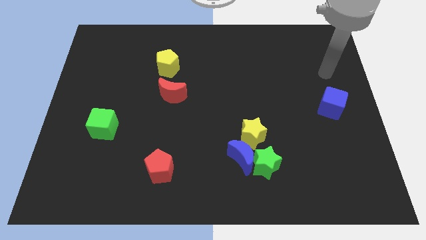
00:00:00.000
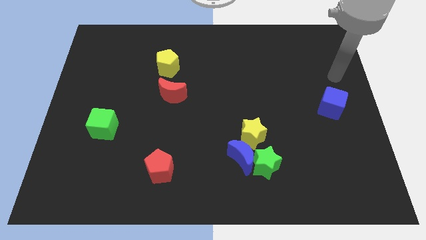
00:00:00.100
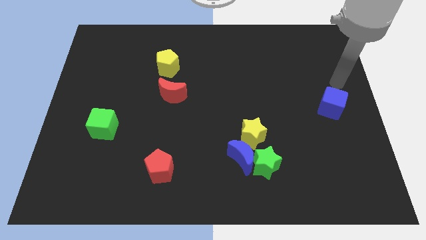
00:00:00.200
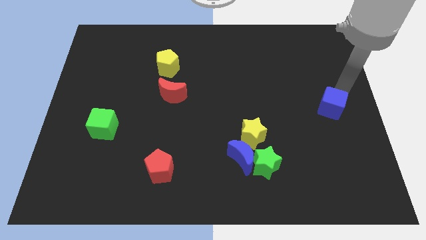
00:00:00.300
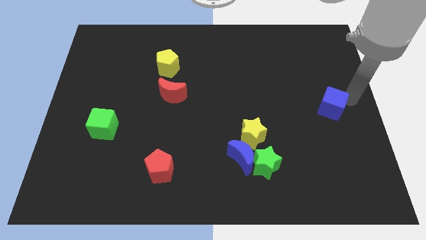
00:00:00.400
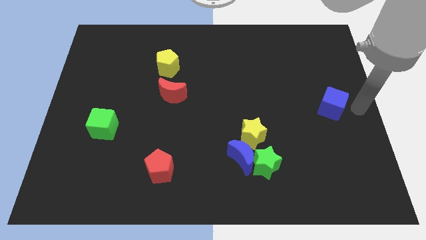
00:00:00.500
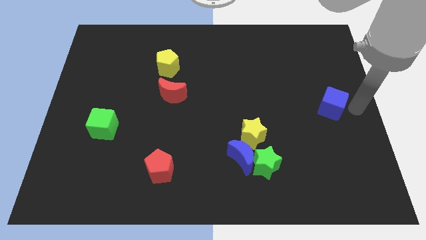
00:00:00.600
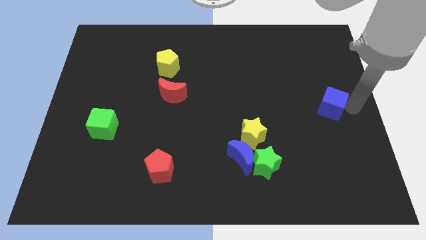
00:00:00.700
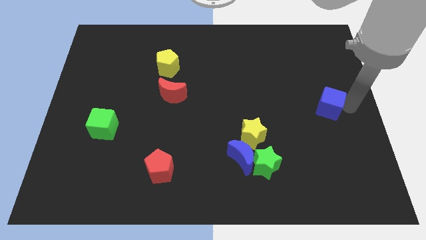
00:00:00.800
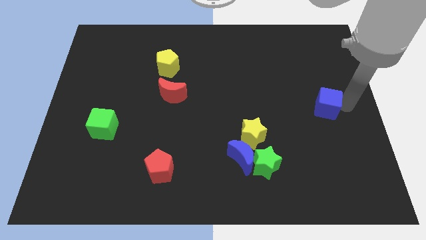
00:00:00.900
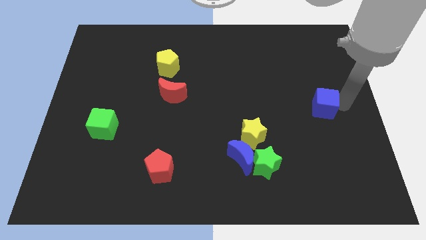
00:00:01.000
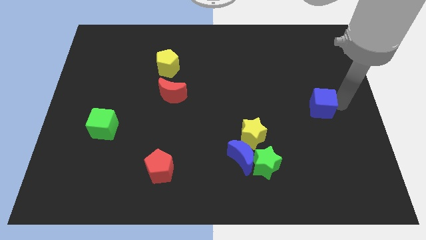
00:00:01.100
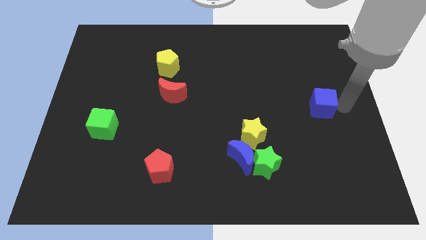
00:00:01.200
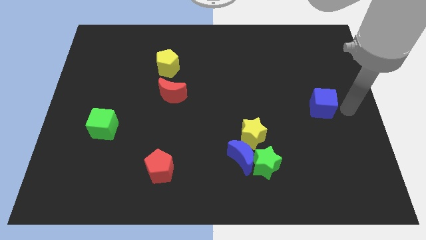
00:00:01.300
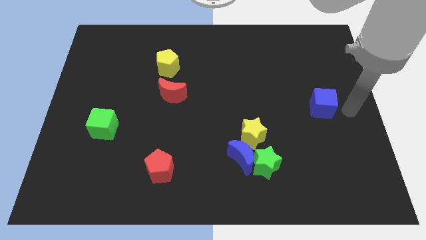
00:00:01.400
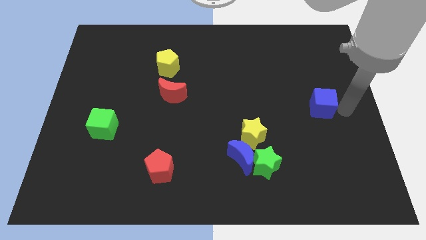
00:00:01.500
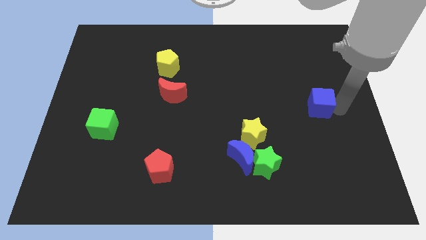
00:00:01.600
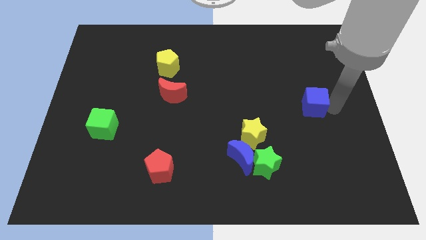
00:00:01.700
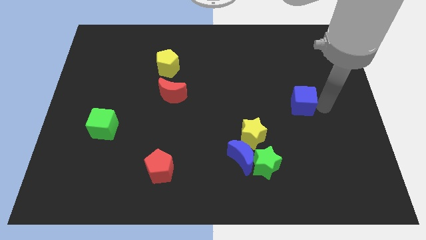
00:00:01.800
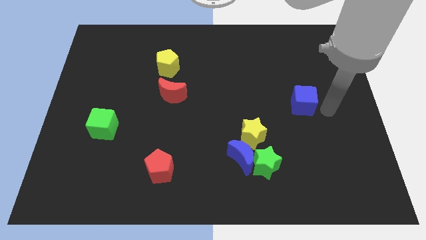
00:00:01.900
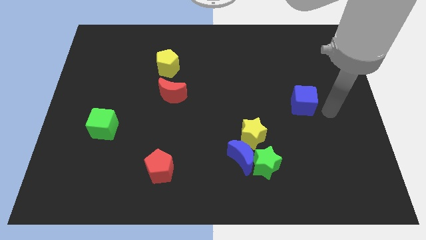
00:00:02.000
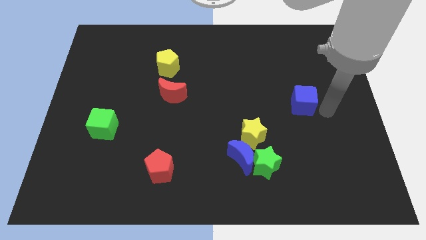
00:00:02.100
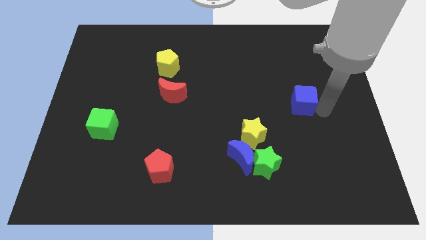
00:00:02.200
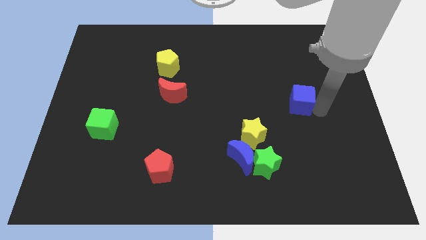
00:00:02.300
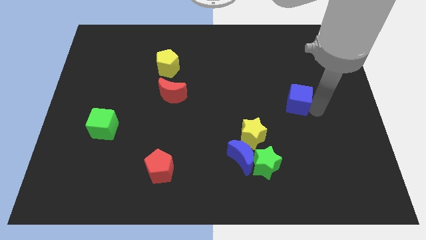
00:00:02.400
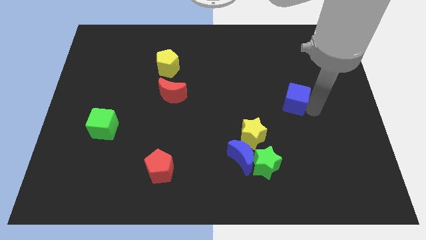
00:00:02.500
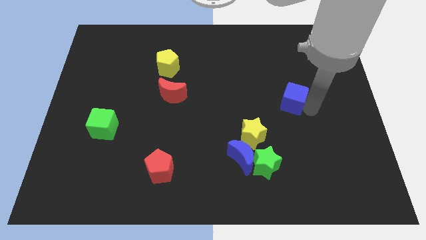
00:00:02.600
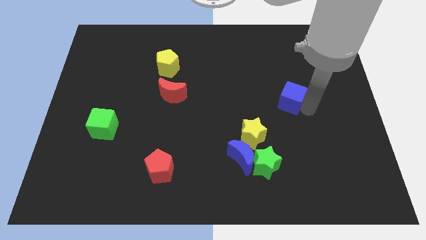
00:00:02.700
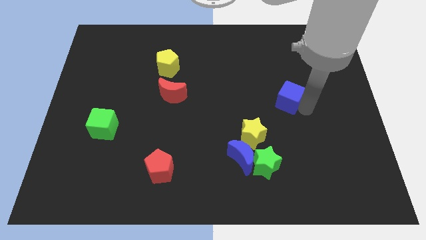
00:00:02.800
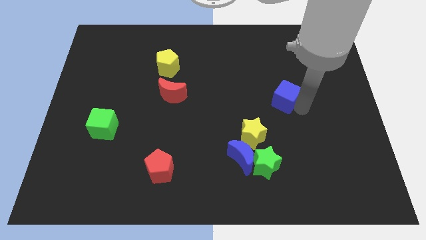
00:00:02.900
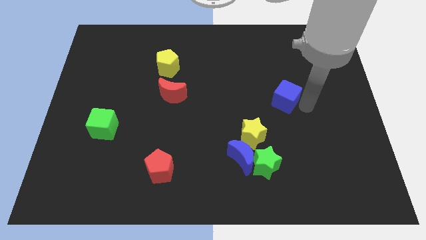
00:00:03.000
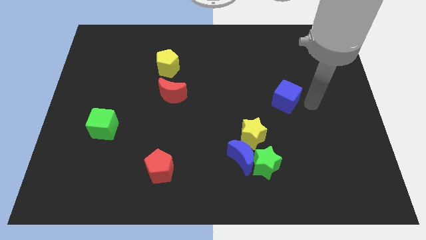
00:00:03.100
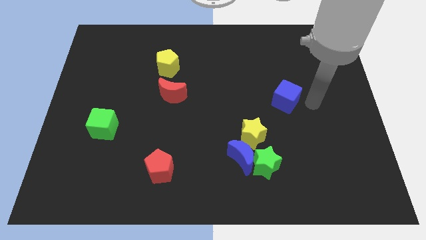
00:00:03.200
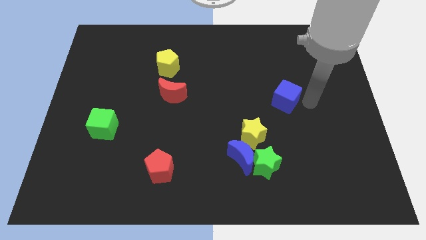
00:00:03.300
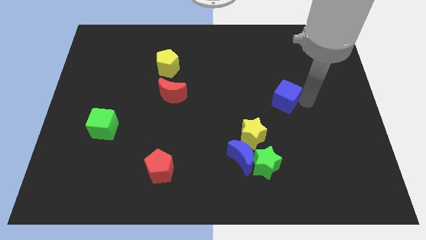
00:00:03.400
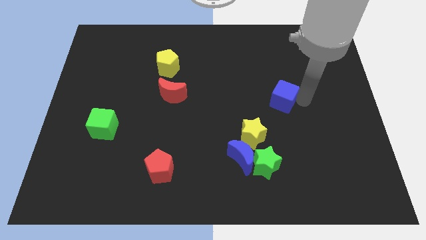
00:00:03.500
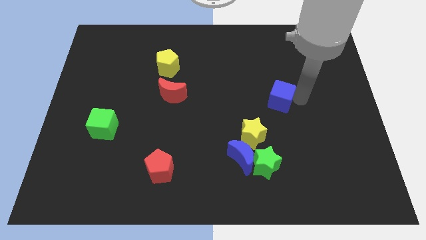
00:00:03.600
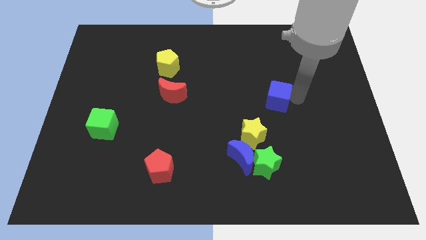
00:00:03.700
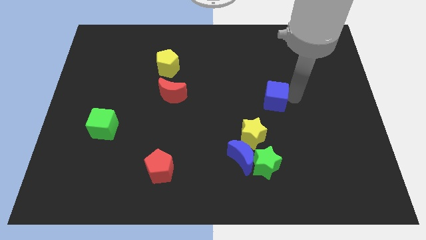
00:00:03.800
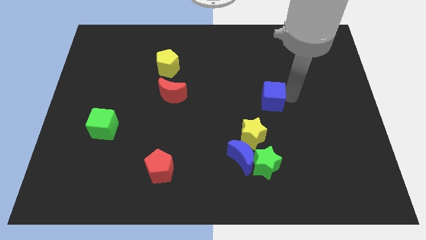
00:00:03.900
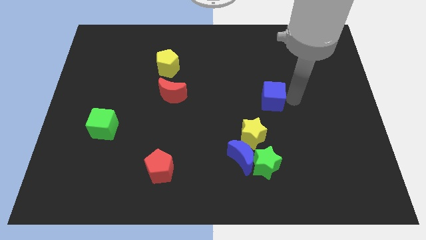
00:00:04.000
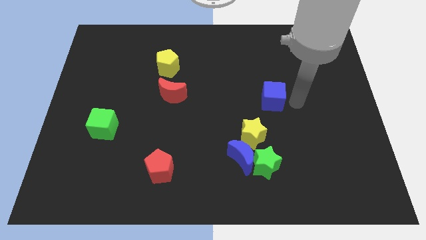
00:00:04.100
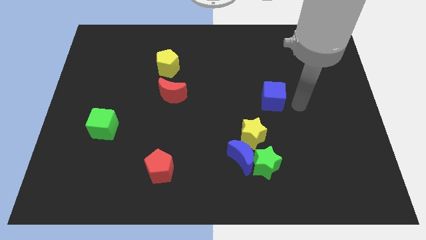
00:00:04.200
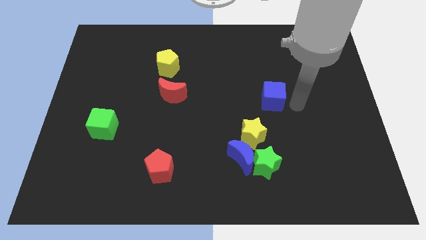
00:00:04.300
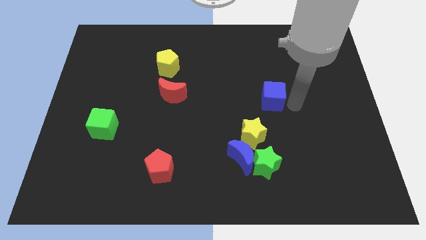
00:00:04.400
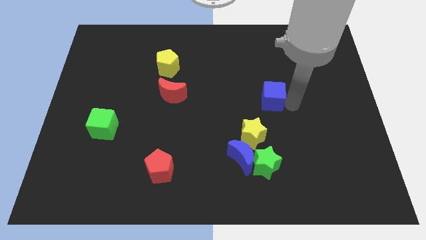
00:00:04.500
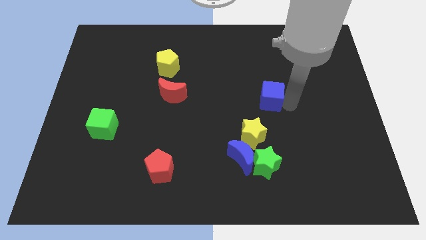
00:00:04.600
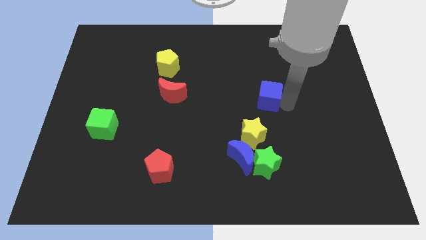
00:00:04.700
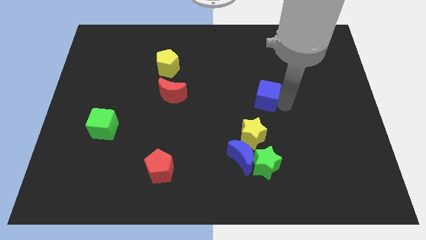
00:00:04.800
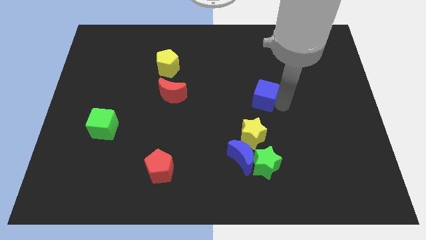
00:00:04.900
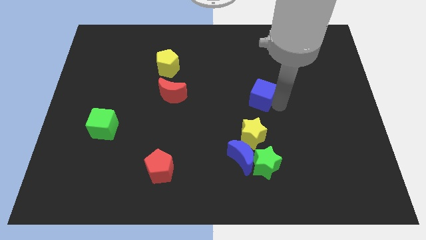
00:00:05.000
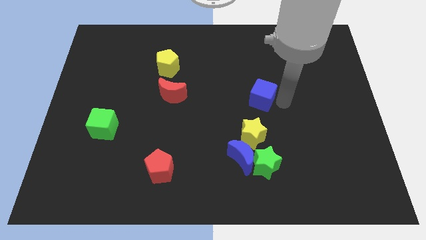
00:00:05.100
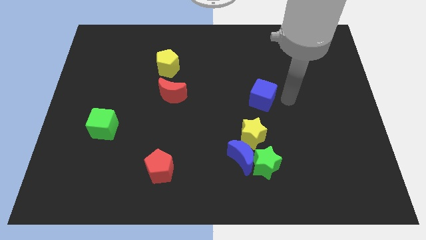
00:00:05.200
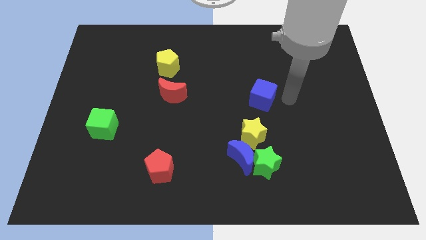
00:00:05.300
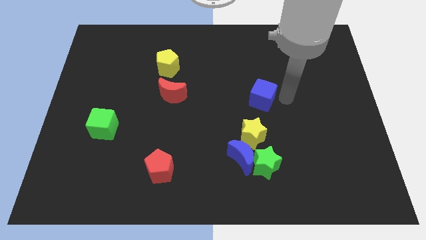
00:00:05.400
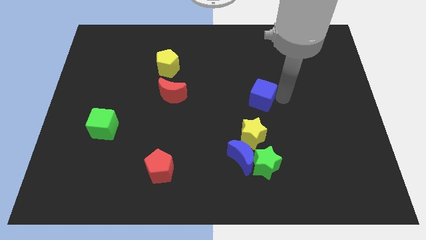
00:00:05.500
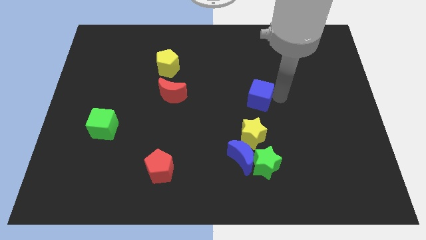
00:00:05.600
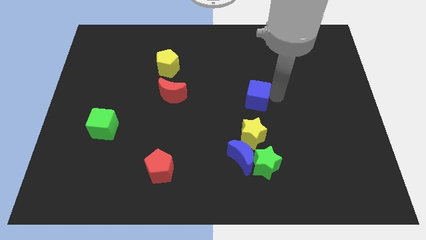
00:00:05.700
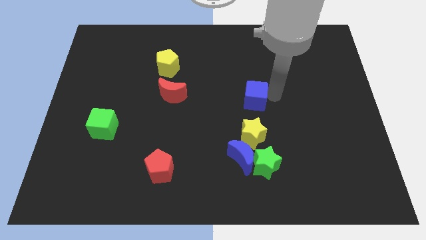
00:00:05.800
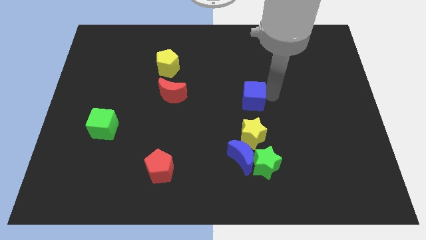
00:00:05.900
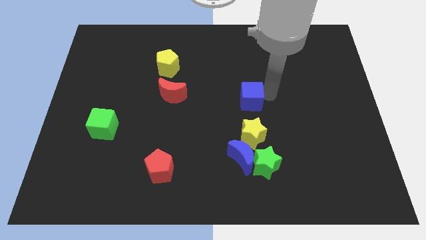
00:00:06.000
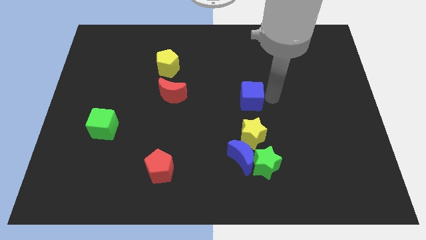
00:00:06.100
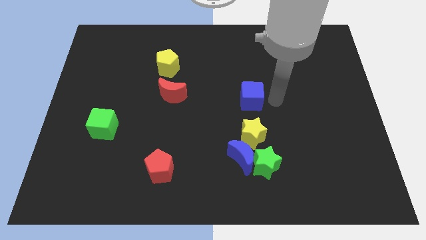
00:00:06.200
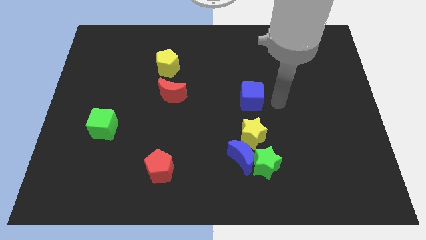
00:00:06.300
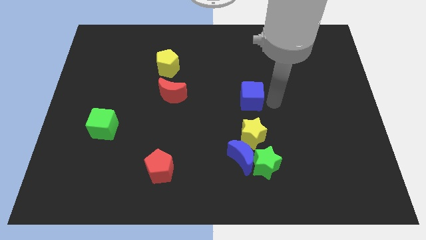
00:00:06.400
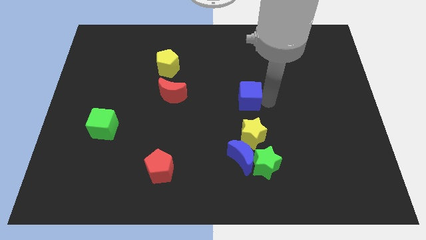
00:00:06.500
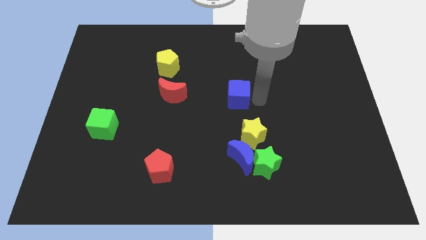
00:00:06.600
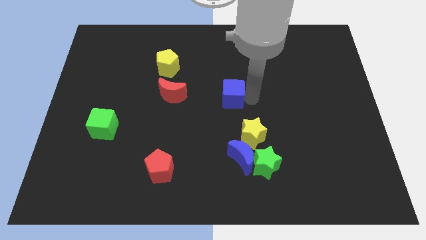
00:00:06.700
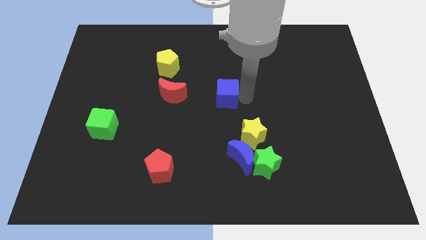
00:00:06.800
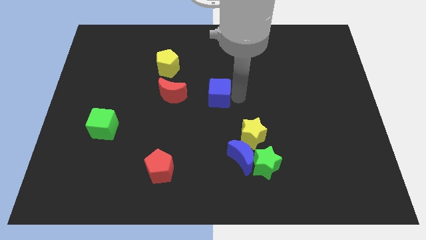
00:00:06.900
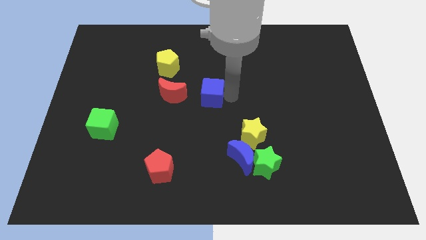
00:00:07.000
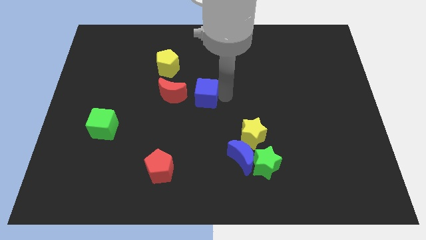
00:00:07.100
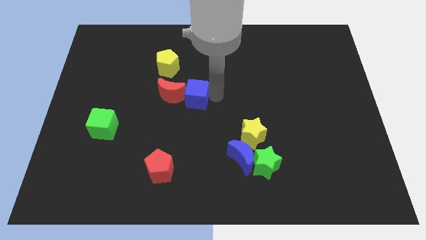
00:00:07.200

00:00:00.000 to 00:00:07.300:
move the blue cube to the red moon

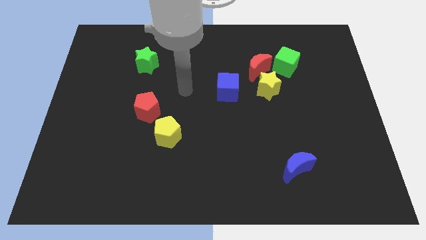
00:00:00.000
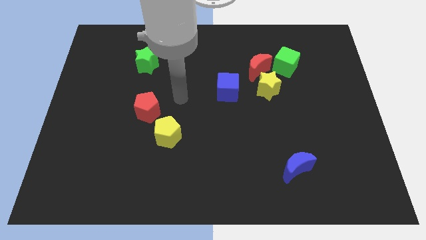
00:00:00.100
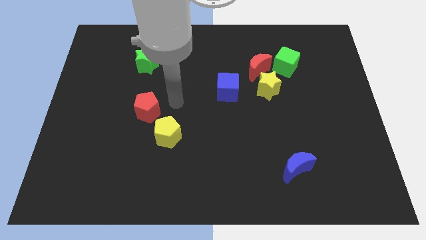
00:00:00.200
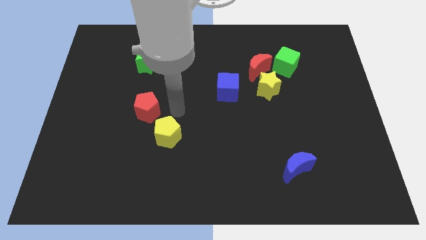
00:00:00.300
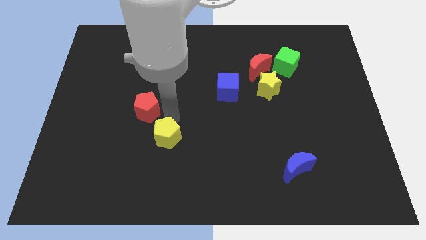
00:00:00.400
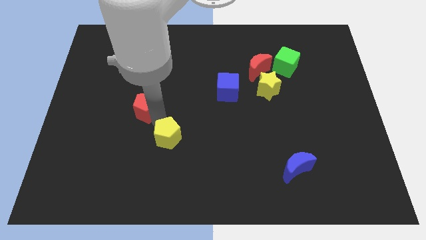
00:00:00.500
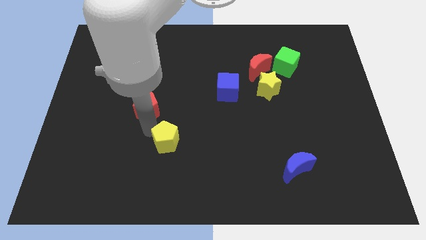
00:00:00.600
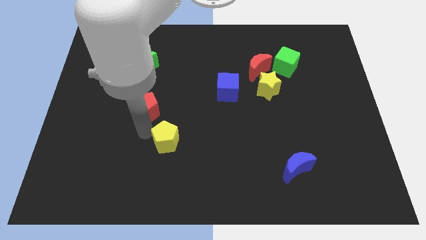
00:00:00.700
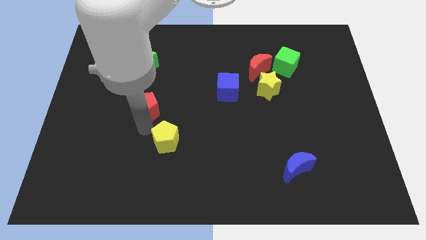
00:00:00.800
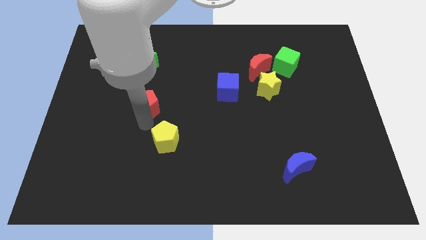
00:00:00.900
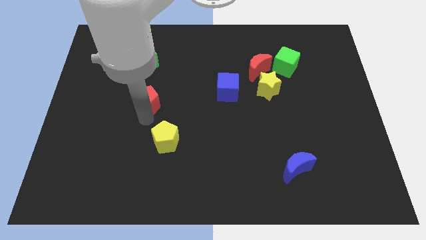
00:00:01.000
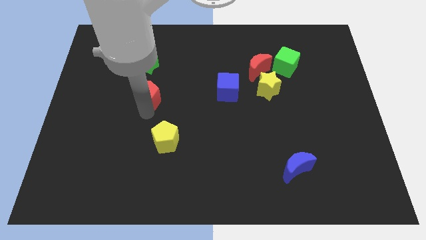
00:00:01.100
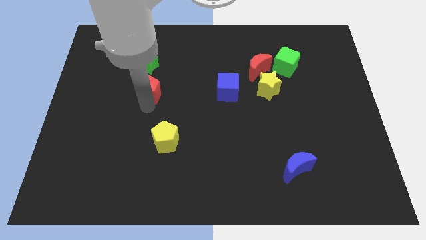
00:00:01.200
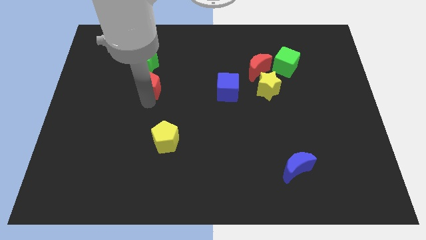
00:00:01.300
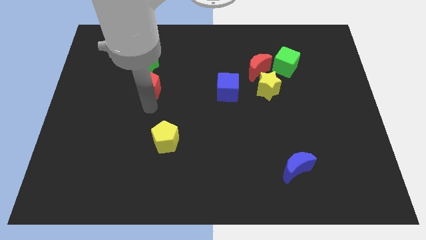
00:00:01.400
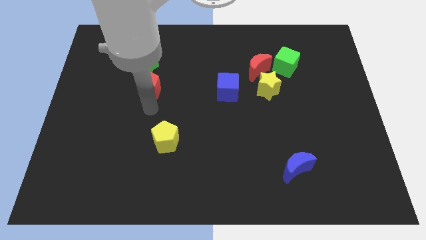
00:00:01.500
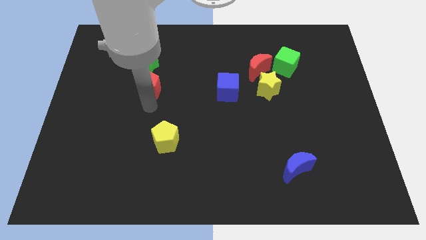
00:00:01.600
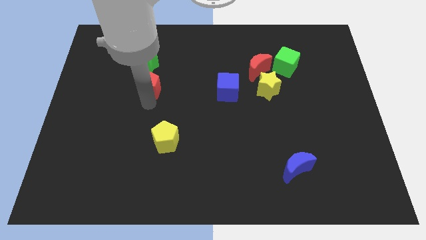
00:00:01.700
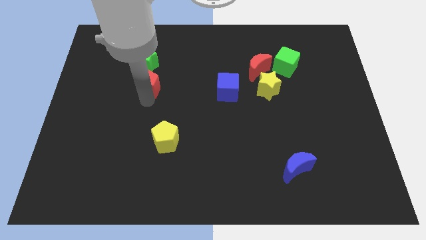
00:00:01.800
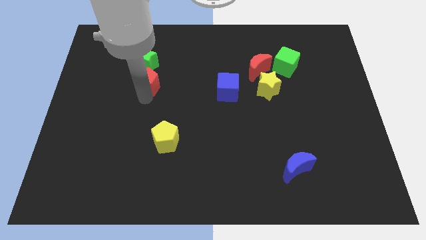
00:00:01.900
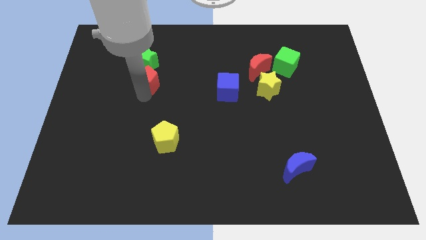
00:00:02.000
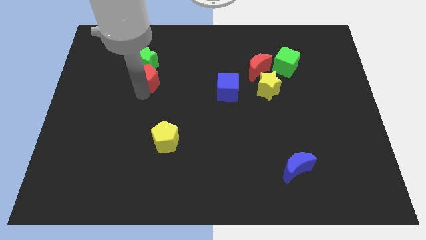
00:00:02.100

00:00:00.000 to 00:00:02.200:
push the red pentagon towards the green star
